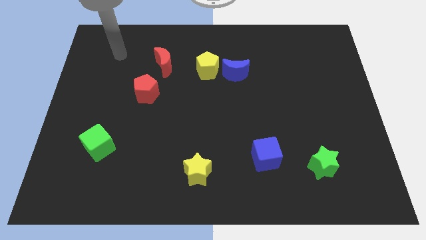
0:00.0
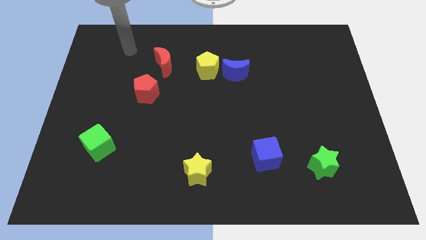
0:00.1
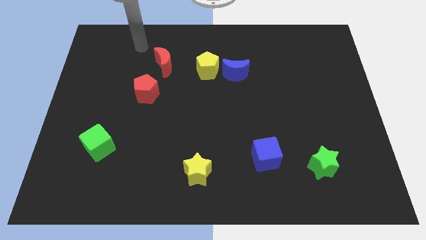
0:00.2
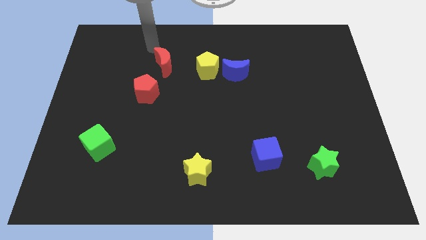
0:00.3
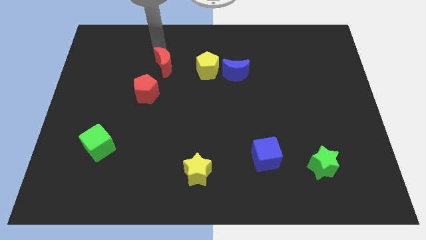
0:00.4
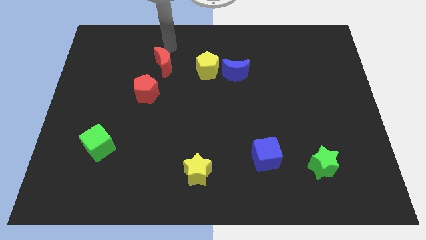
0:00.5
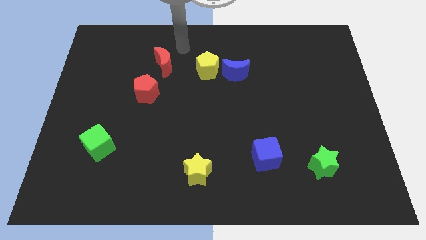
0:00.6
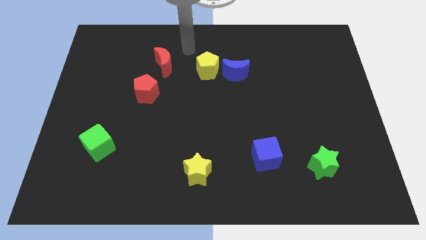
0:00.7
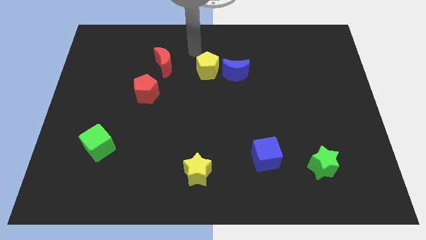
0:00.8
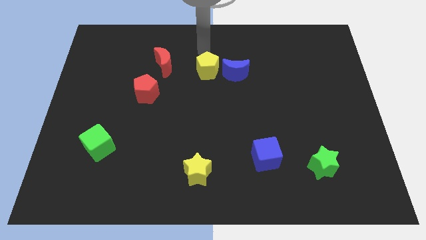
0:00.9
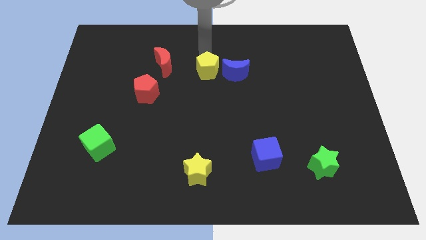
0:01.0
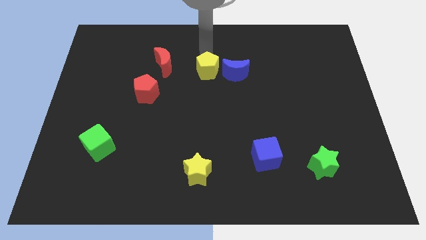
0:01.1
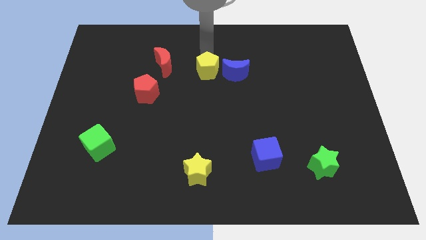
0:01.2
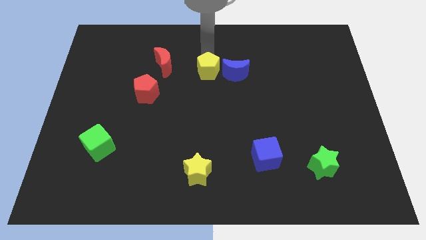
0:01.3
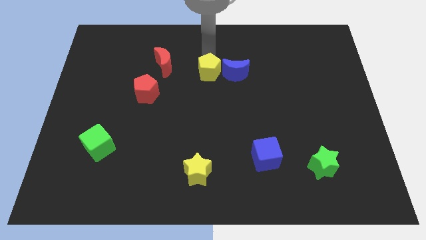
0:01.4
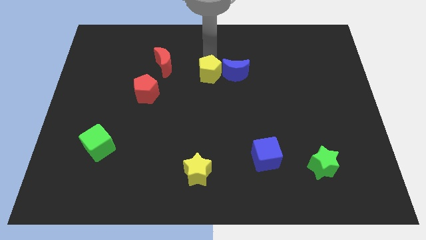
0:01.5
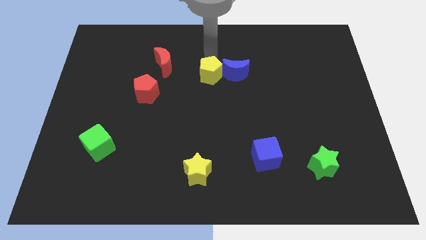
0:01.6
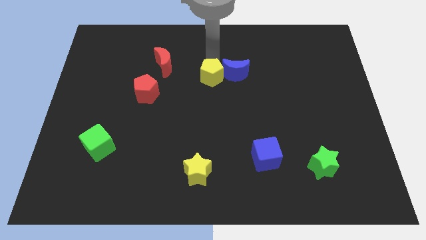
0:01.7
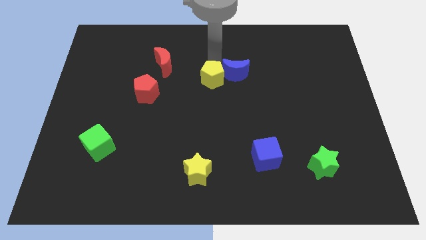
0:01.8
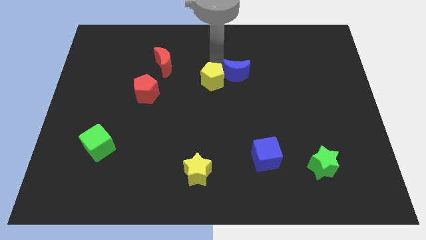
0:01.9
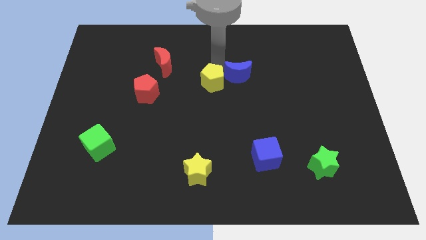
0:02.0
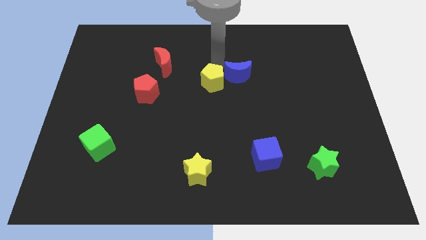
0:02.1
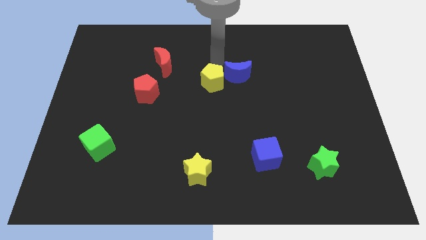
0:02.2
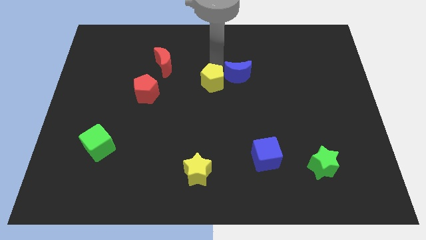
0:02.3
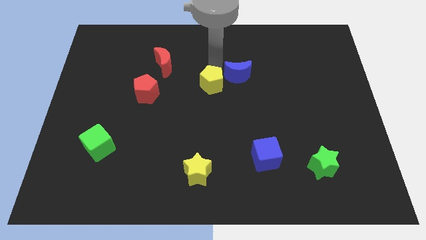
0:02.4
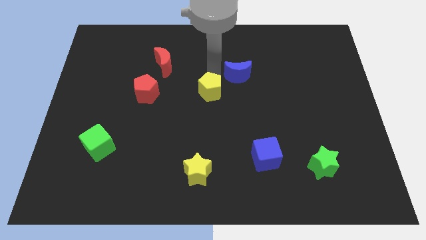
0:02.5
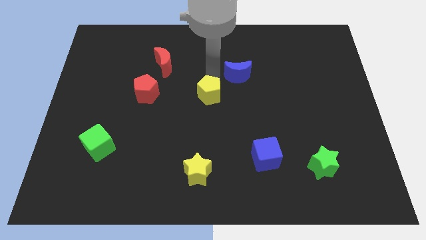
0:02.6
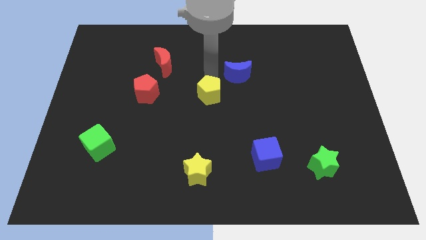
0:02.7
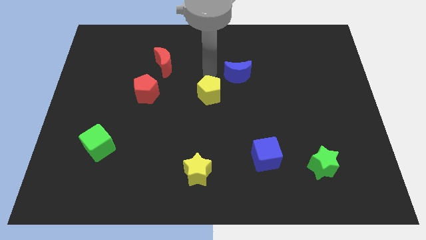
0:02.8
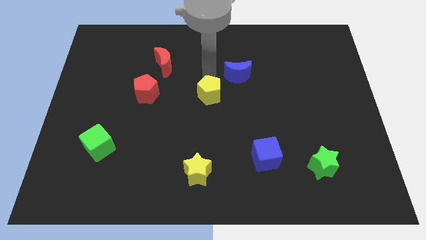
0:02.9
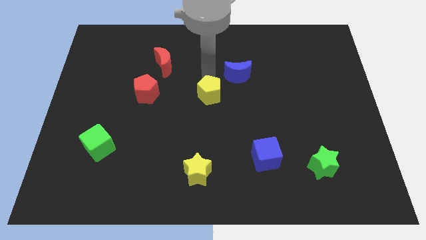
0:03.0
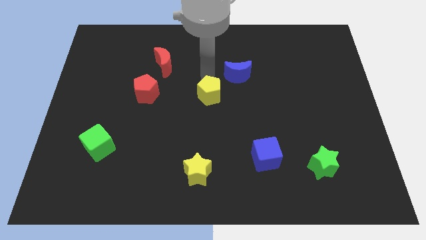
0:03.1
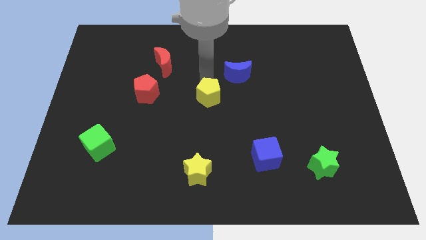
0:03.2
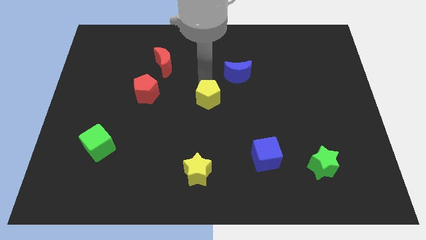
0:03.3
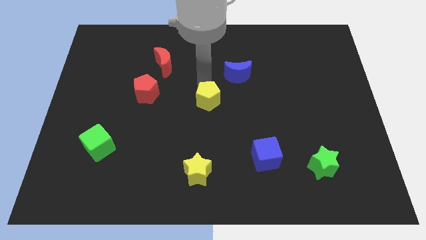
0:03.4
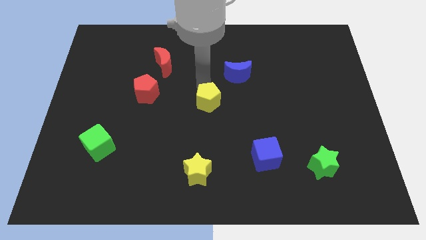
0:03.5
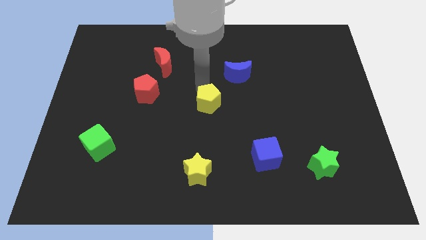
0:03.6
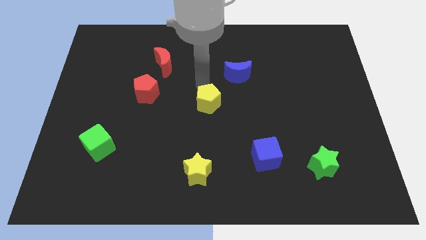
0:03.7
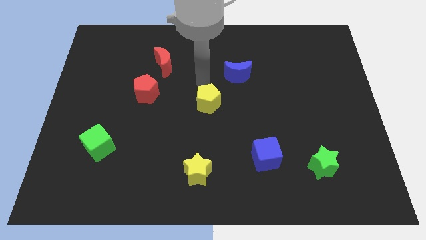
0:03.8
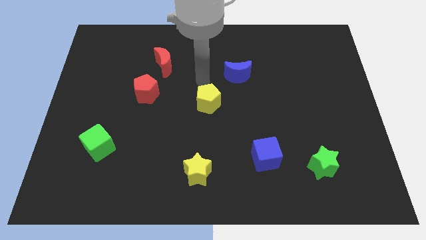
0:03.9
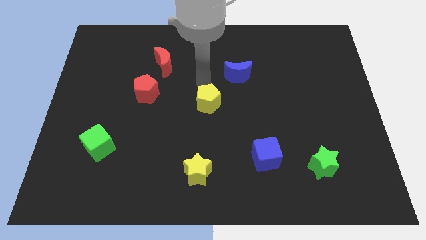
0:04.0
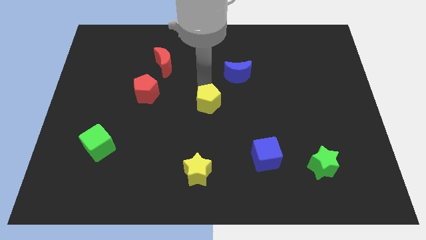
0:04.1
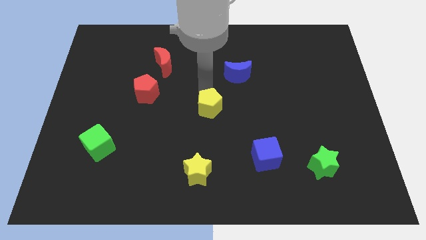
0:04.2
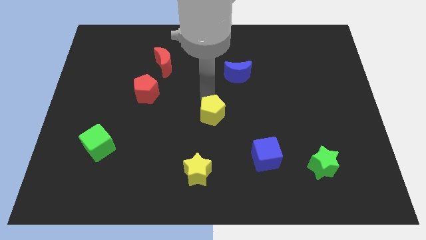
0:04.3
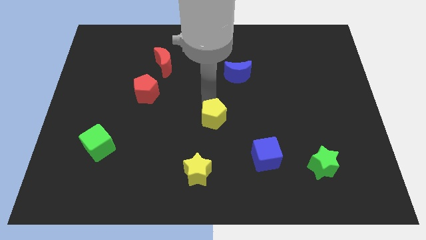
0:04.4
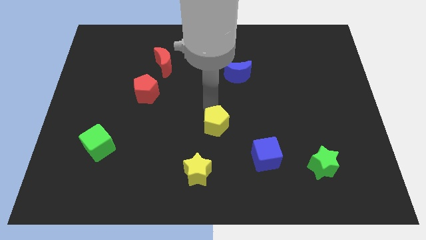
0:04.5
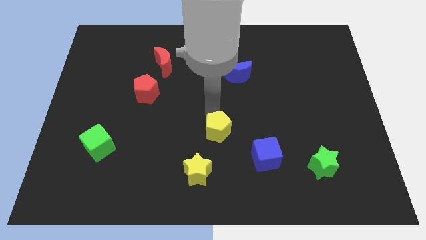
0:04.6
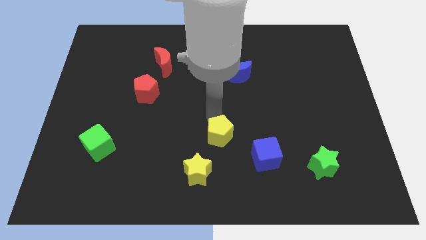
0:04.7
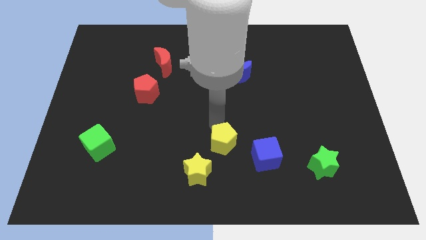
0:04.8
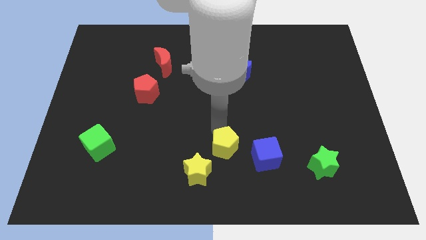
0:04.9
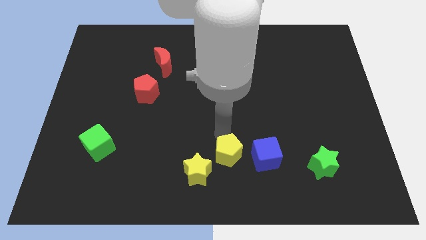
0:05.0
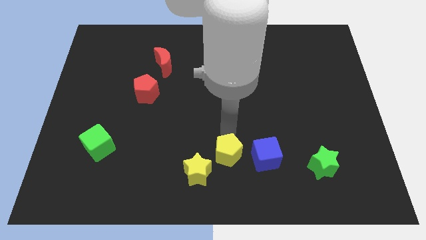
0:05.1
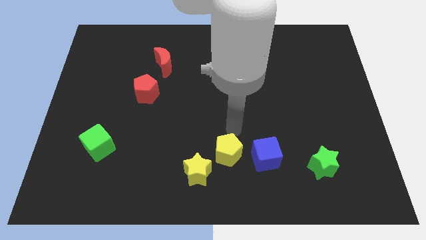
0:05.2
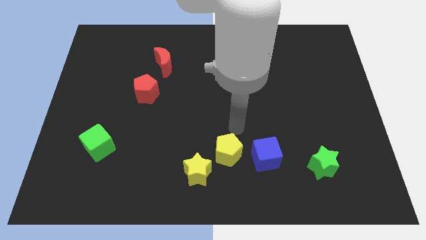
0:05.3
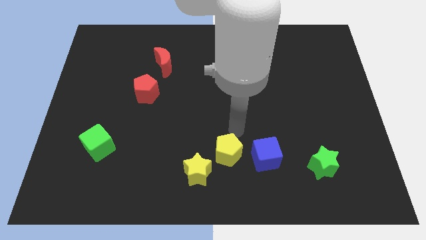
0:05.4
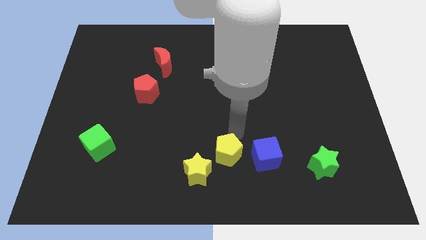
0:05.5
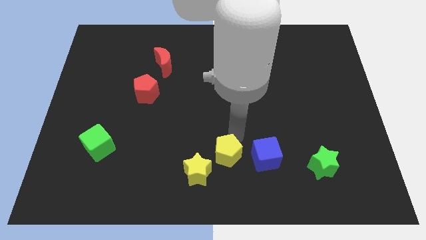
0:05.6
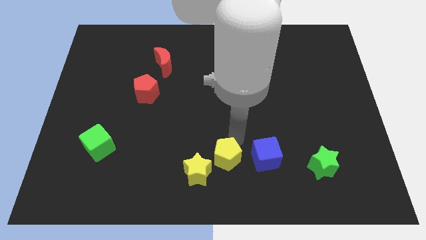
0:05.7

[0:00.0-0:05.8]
push the yellow pentagon to the bottom side

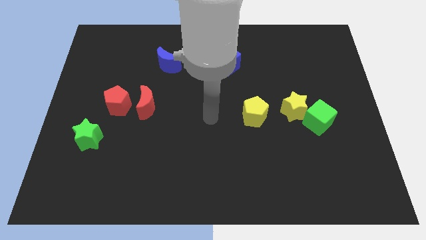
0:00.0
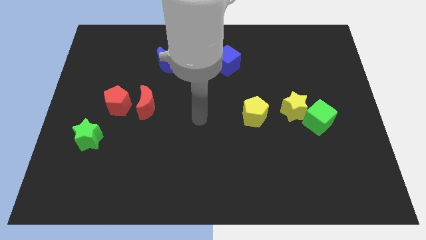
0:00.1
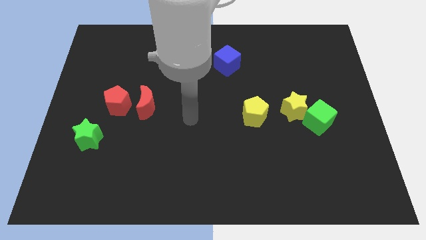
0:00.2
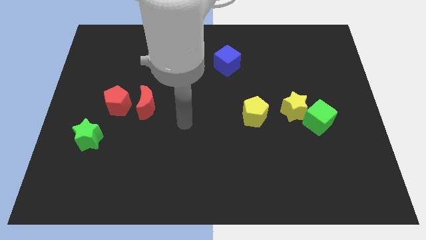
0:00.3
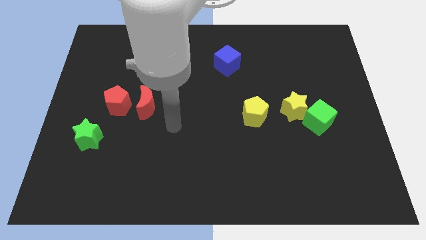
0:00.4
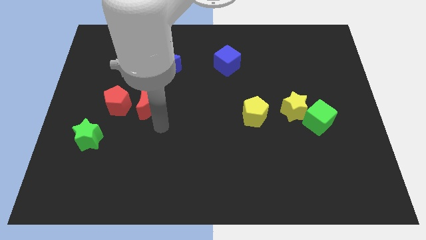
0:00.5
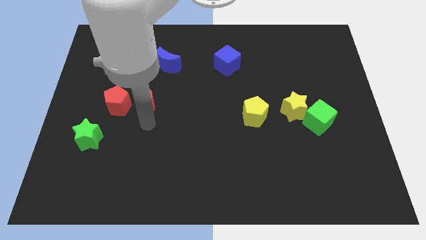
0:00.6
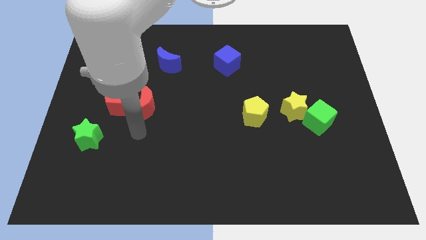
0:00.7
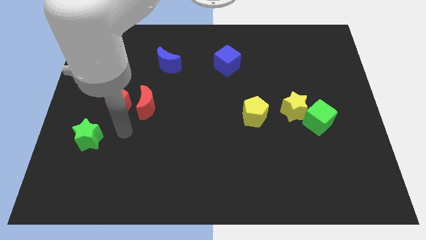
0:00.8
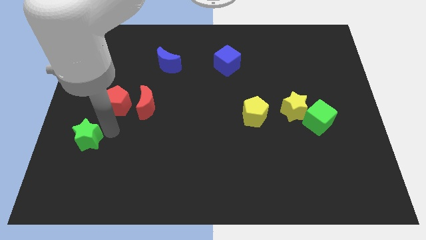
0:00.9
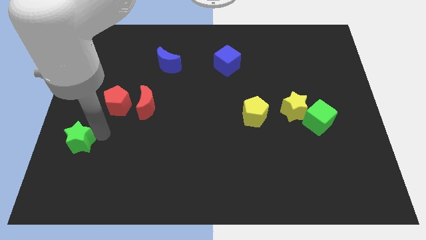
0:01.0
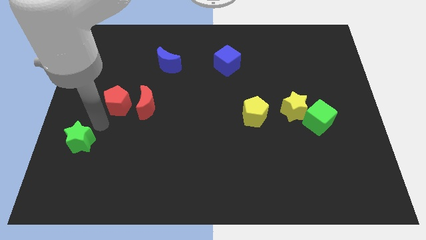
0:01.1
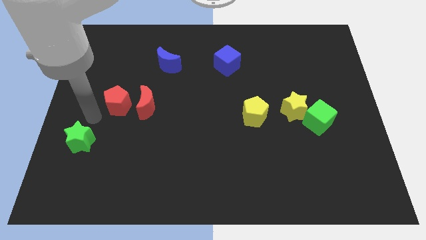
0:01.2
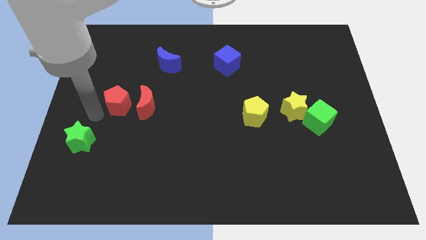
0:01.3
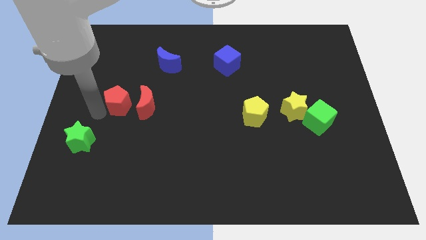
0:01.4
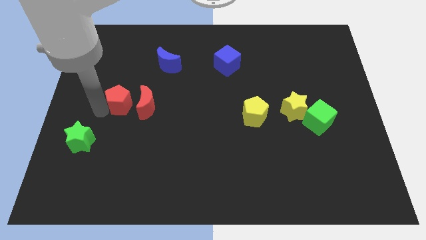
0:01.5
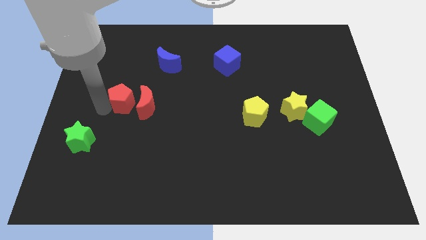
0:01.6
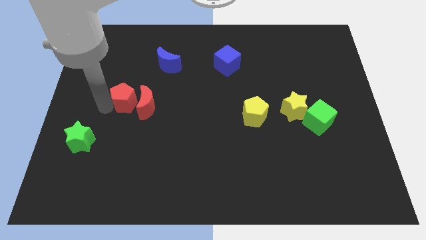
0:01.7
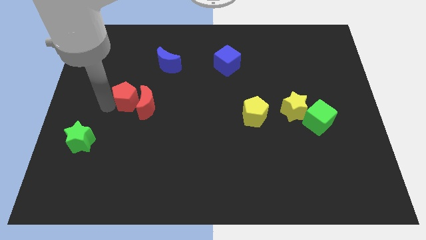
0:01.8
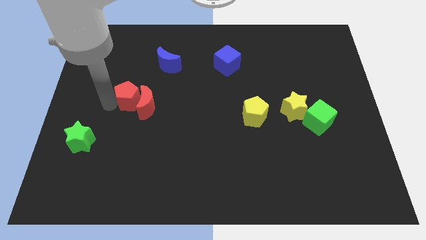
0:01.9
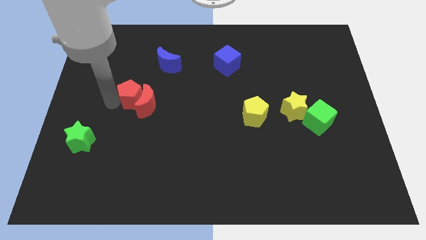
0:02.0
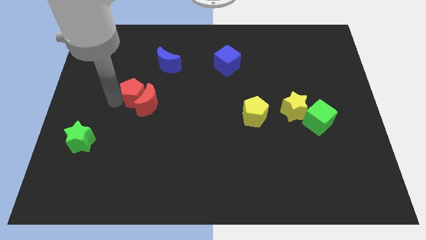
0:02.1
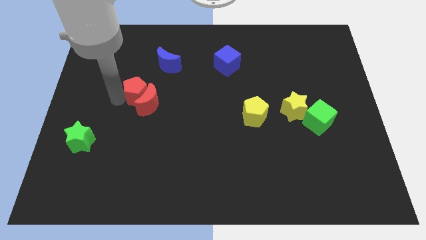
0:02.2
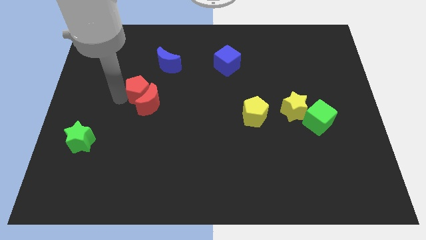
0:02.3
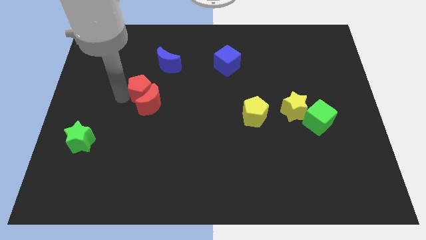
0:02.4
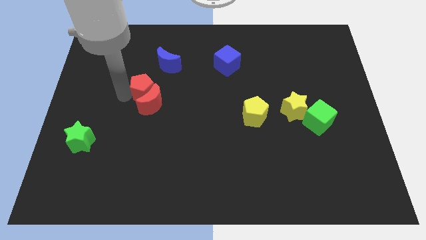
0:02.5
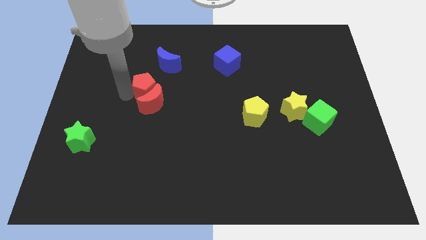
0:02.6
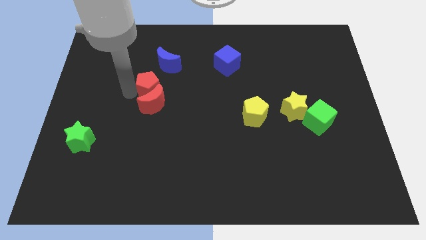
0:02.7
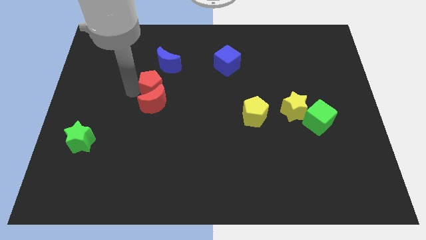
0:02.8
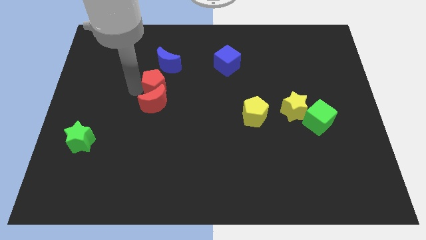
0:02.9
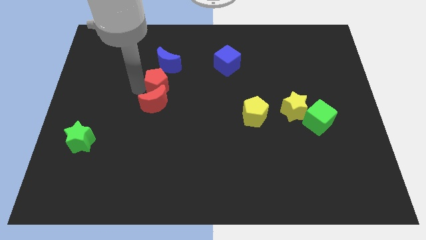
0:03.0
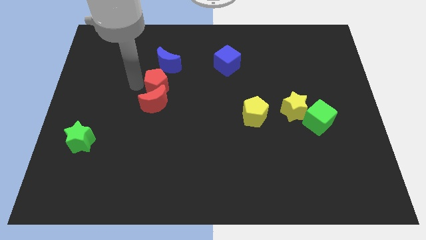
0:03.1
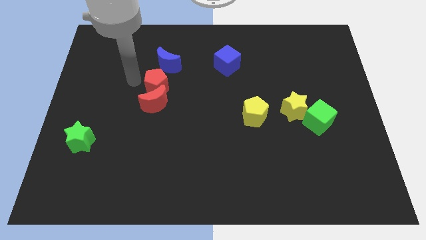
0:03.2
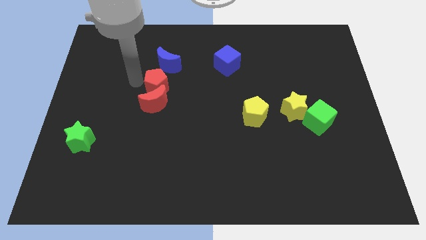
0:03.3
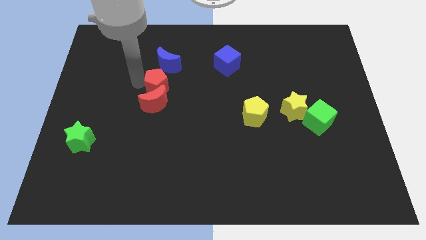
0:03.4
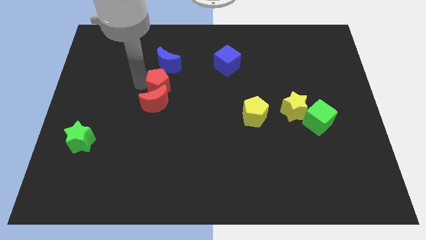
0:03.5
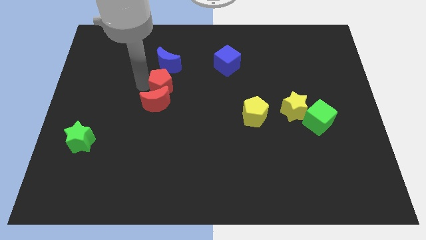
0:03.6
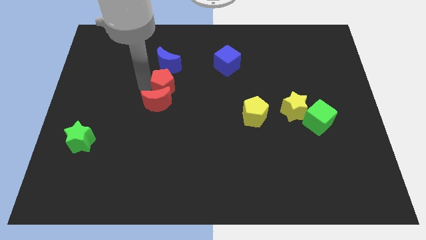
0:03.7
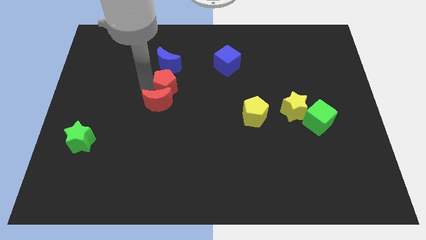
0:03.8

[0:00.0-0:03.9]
push the red pentagon to the middle
